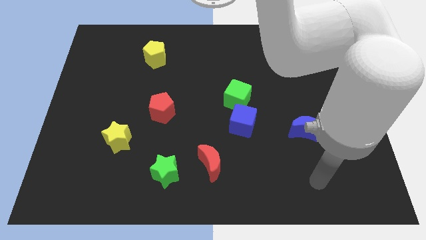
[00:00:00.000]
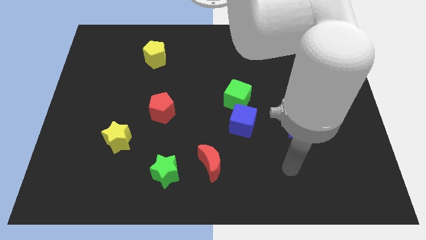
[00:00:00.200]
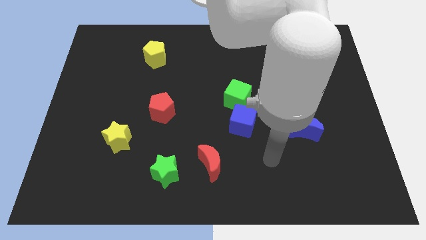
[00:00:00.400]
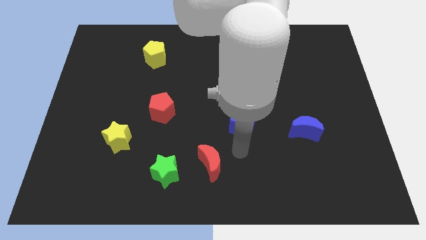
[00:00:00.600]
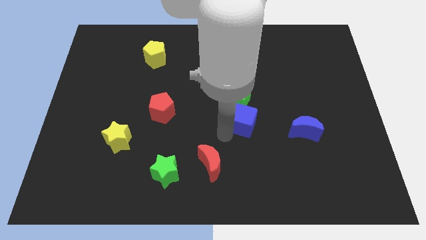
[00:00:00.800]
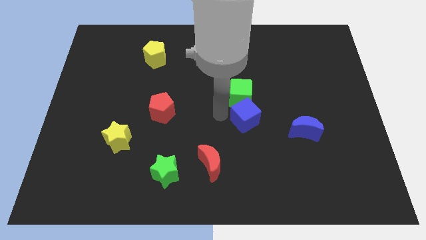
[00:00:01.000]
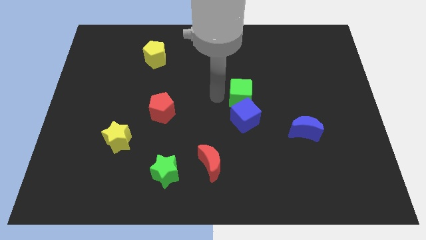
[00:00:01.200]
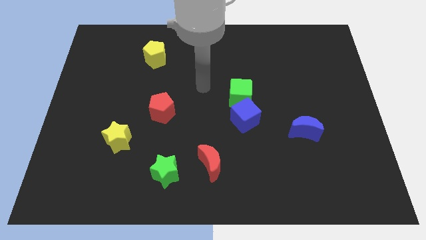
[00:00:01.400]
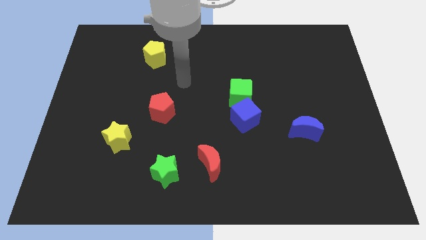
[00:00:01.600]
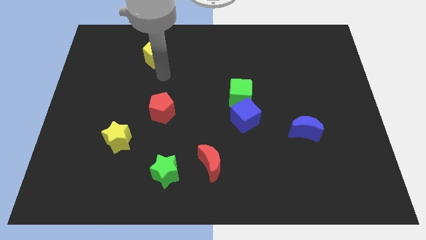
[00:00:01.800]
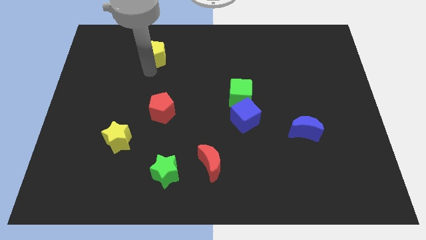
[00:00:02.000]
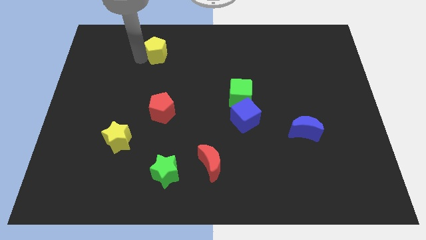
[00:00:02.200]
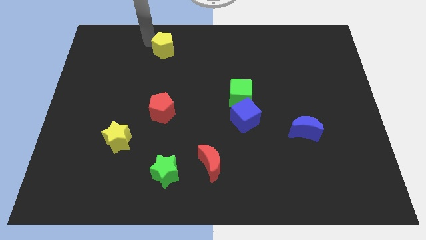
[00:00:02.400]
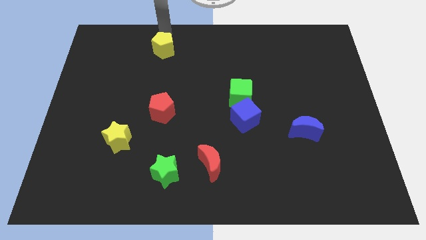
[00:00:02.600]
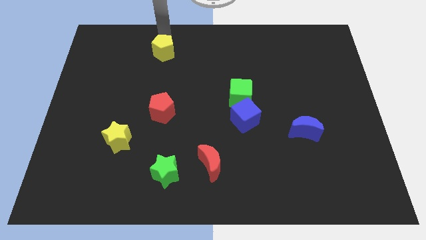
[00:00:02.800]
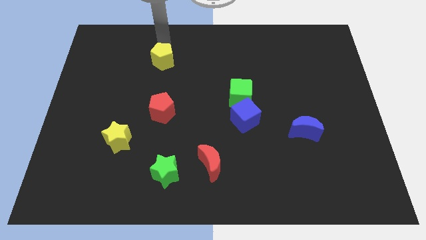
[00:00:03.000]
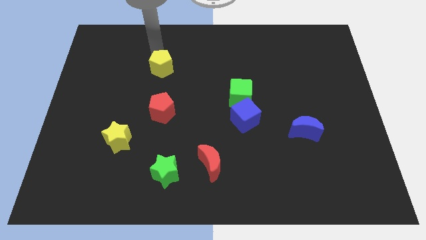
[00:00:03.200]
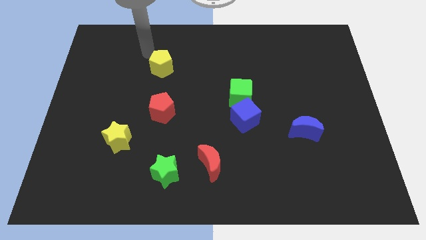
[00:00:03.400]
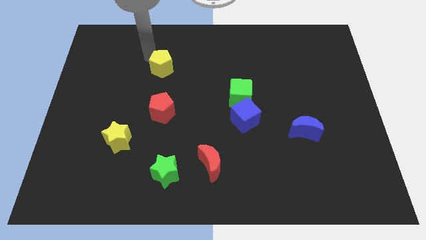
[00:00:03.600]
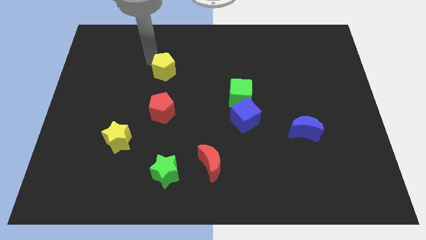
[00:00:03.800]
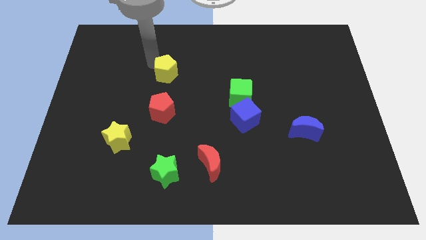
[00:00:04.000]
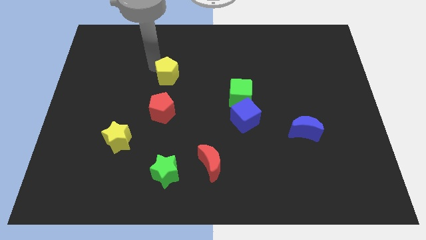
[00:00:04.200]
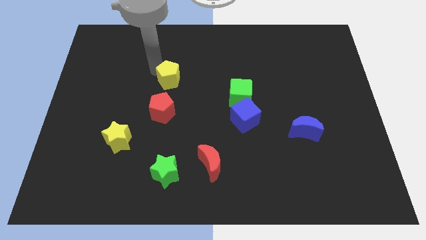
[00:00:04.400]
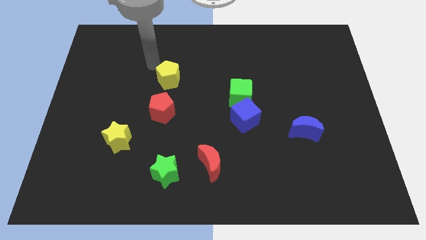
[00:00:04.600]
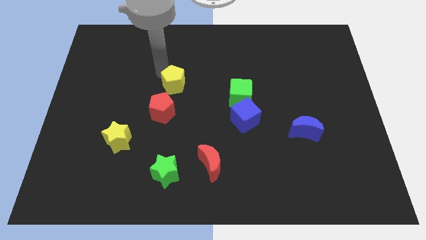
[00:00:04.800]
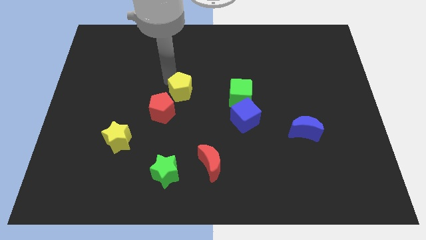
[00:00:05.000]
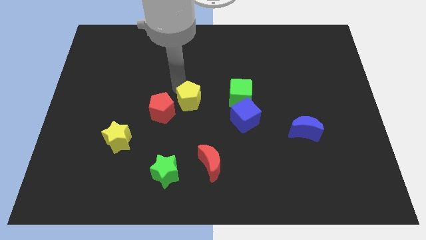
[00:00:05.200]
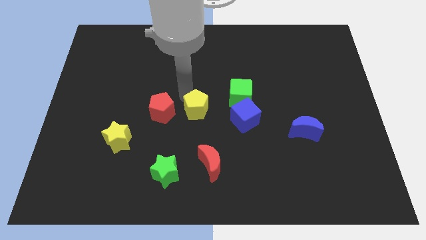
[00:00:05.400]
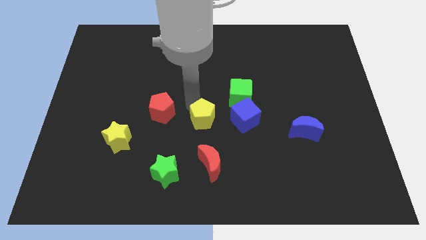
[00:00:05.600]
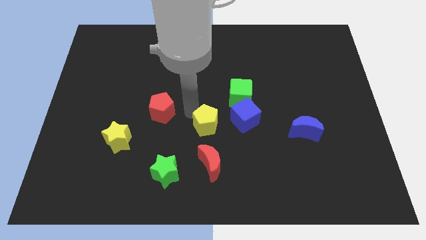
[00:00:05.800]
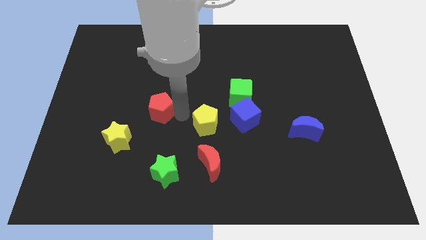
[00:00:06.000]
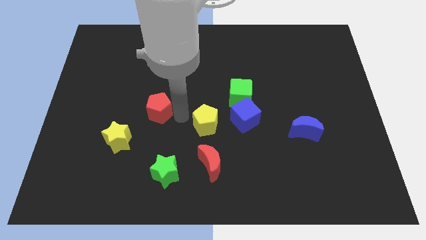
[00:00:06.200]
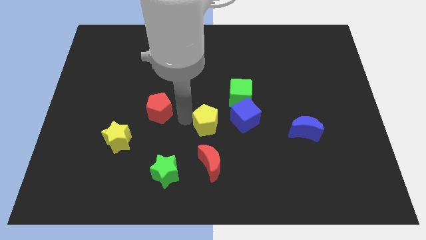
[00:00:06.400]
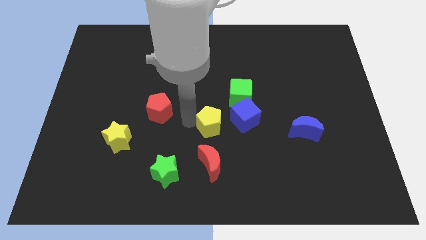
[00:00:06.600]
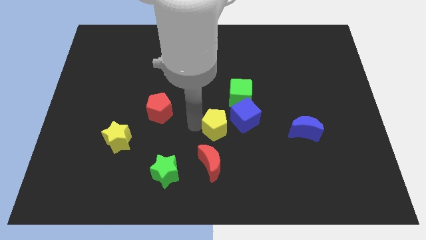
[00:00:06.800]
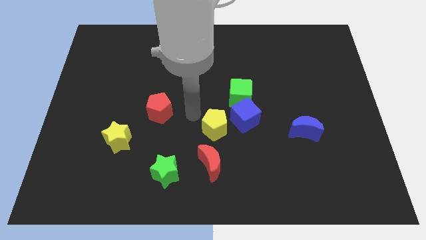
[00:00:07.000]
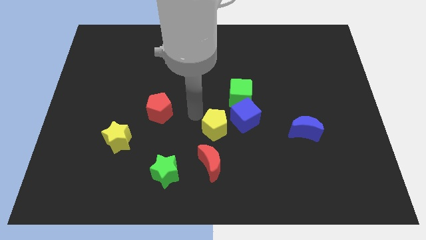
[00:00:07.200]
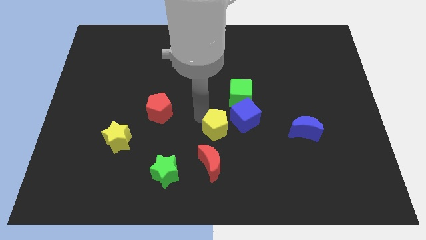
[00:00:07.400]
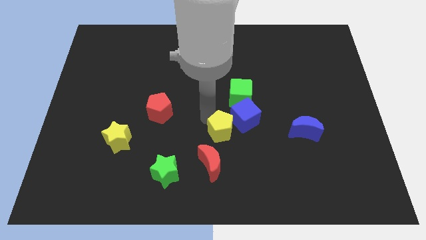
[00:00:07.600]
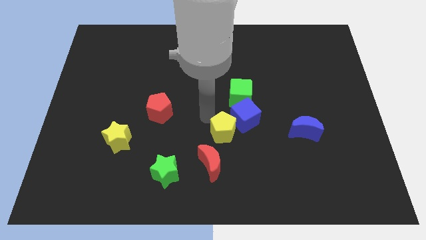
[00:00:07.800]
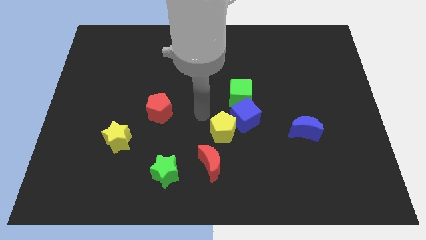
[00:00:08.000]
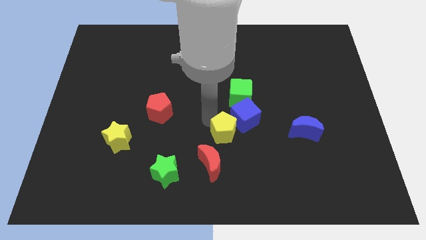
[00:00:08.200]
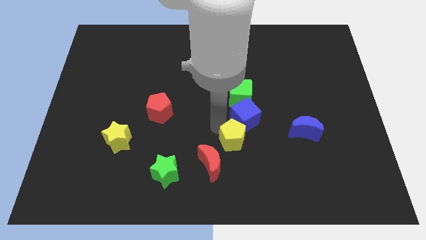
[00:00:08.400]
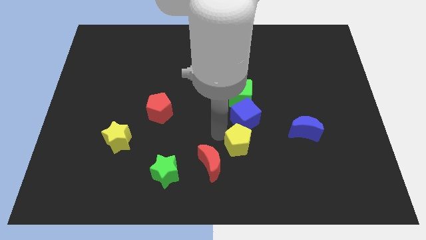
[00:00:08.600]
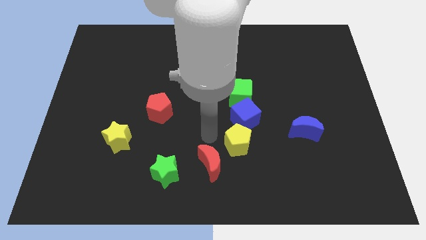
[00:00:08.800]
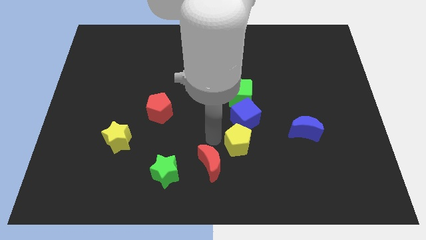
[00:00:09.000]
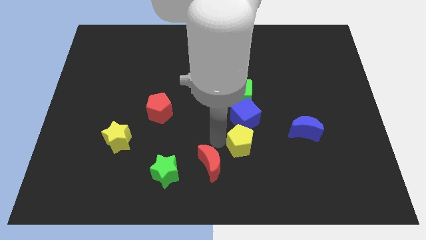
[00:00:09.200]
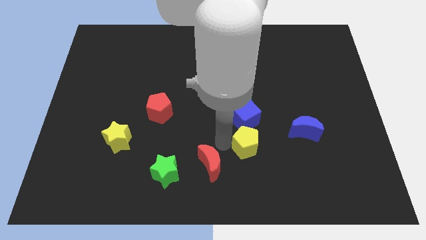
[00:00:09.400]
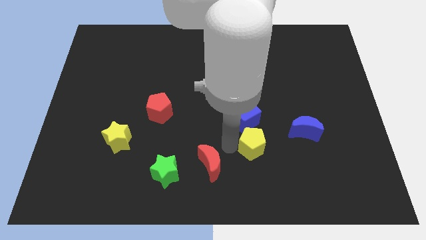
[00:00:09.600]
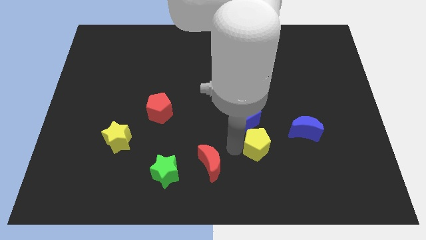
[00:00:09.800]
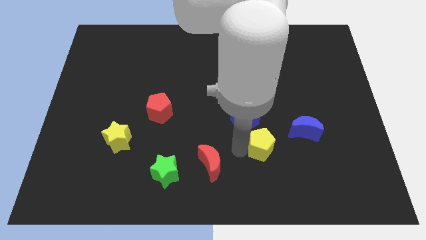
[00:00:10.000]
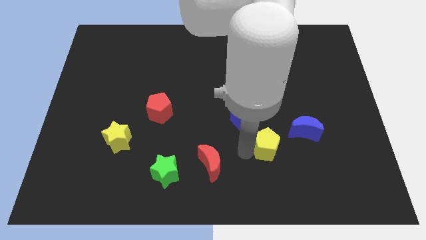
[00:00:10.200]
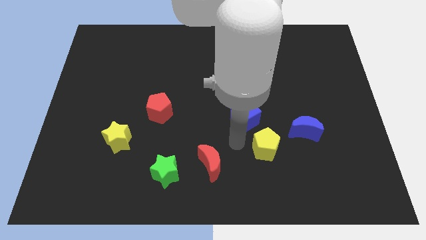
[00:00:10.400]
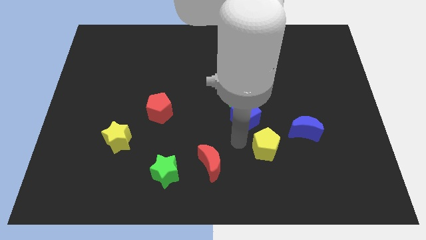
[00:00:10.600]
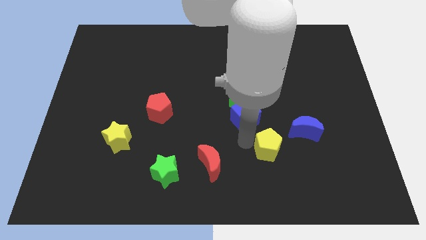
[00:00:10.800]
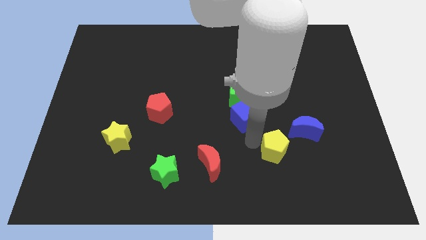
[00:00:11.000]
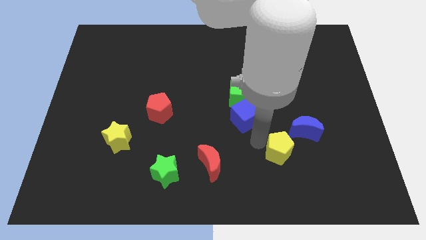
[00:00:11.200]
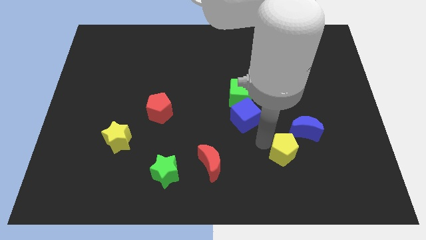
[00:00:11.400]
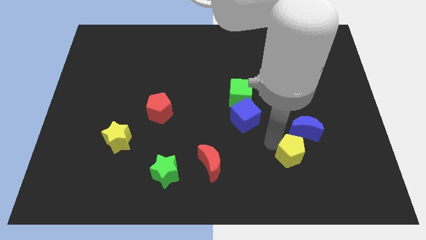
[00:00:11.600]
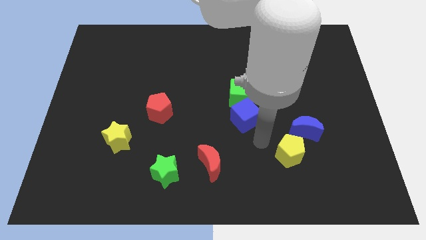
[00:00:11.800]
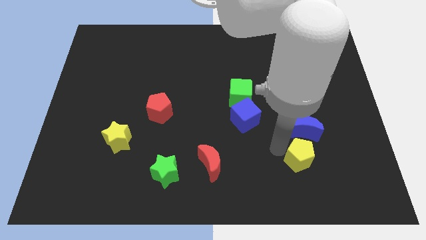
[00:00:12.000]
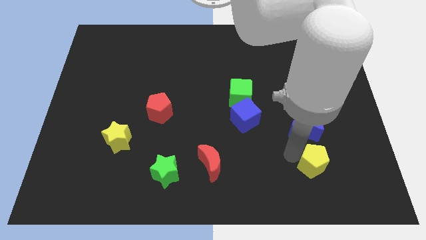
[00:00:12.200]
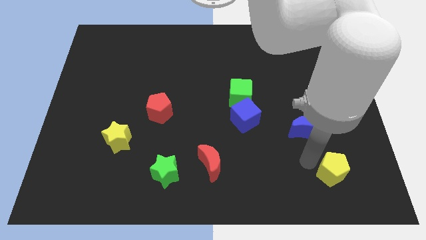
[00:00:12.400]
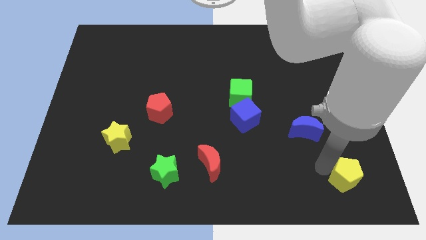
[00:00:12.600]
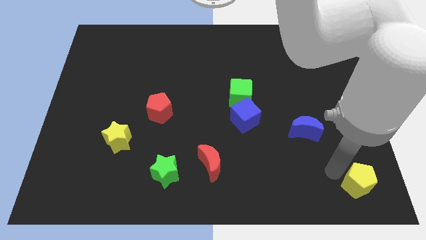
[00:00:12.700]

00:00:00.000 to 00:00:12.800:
push the yellow pentagon to the bottom right corner
